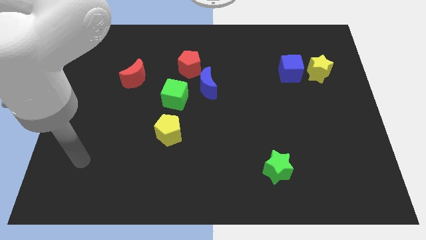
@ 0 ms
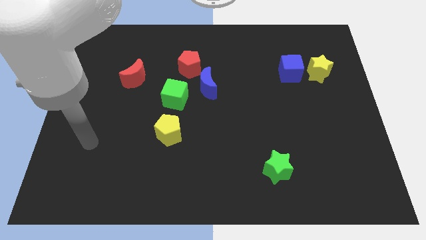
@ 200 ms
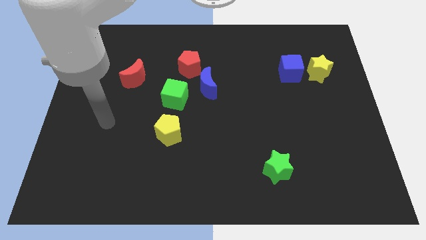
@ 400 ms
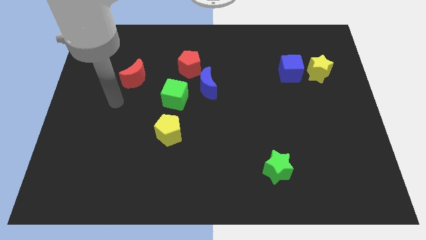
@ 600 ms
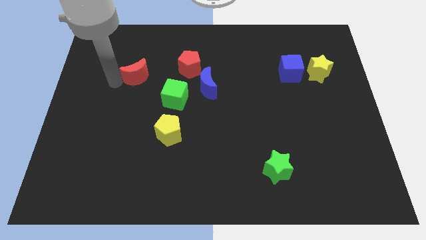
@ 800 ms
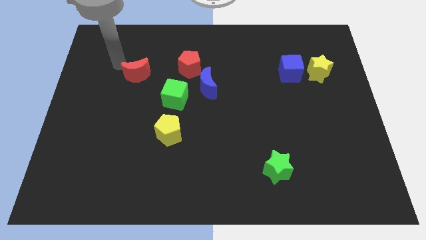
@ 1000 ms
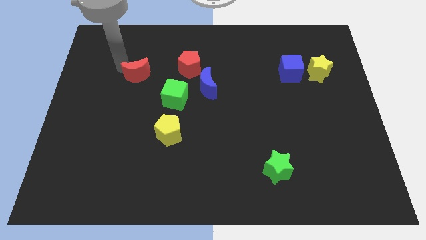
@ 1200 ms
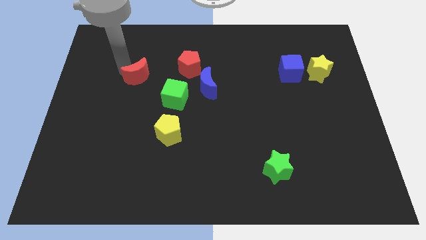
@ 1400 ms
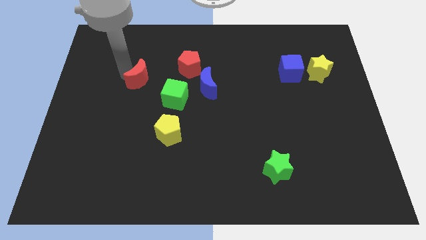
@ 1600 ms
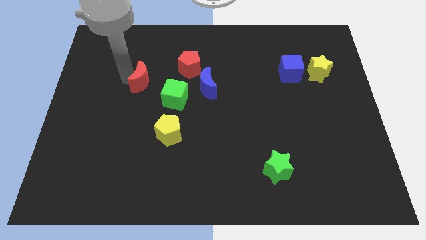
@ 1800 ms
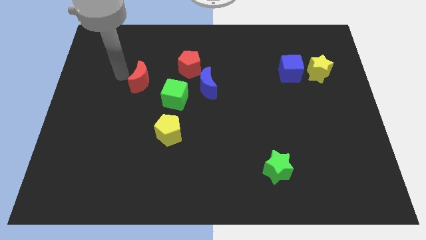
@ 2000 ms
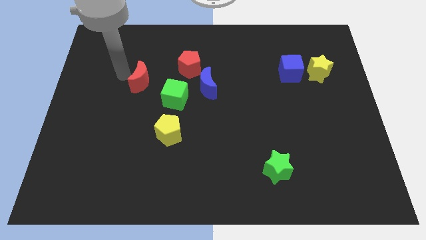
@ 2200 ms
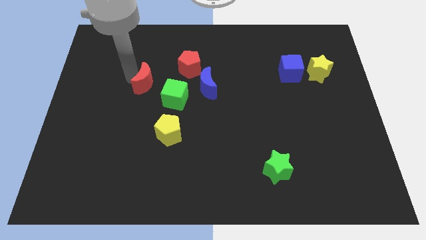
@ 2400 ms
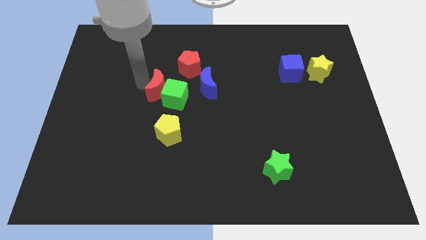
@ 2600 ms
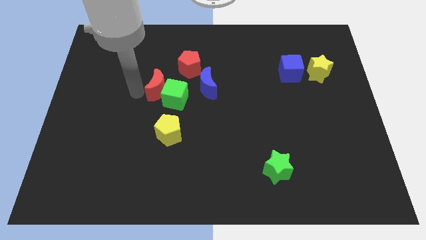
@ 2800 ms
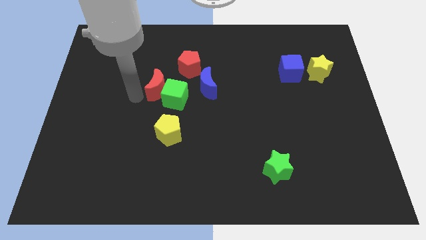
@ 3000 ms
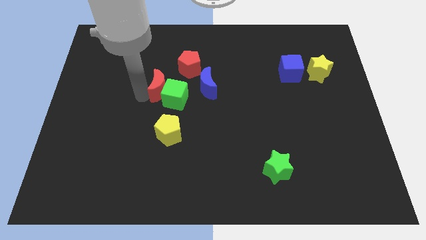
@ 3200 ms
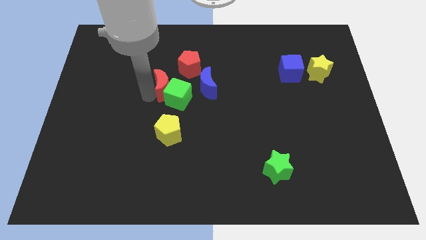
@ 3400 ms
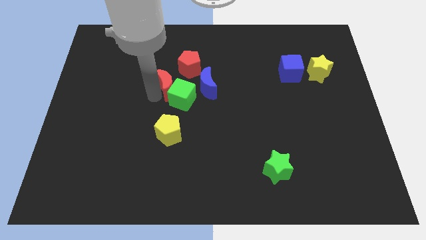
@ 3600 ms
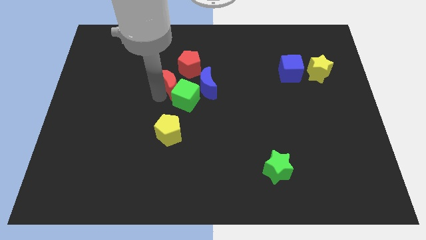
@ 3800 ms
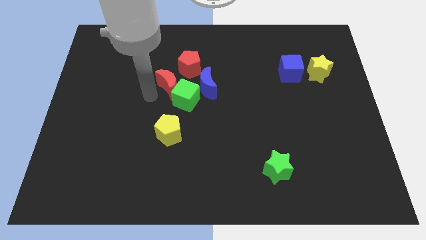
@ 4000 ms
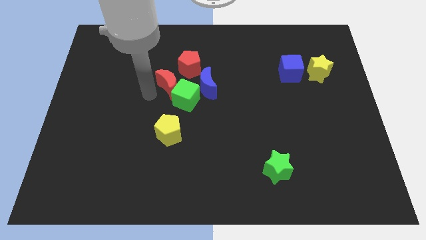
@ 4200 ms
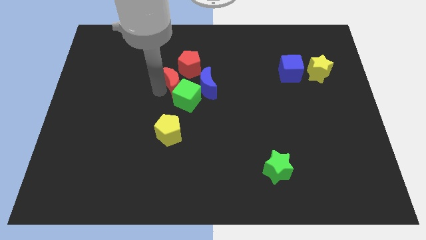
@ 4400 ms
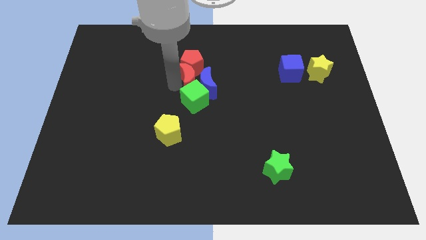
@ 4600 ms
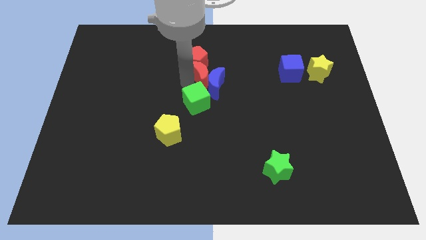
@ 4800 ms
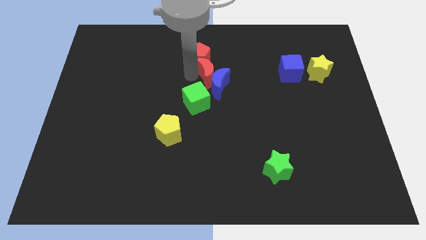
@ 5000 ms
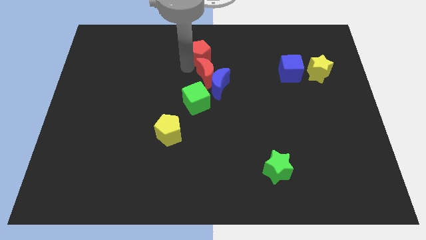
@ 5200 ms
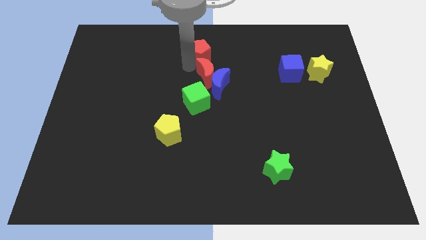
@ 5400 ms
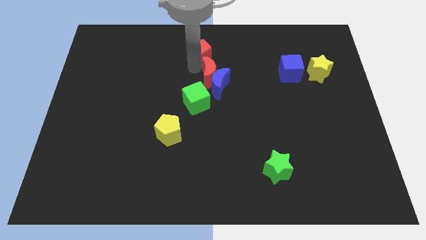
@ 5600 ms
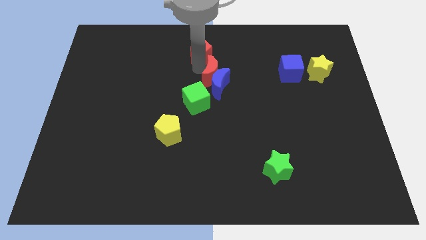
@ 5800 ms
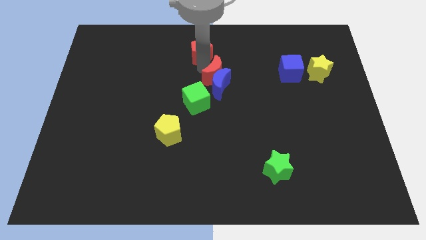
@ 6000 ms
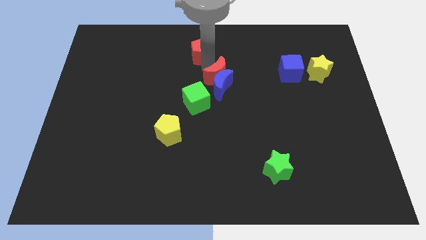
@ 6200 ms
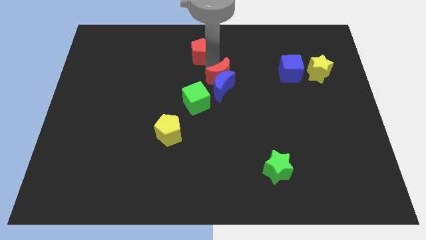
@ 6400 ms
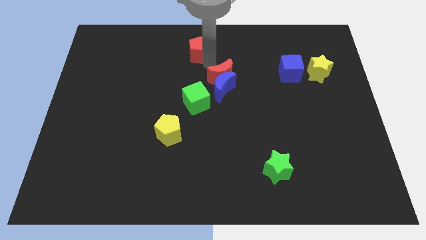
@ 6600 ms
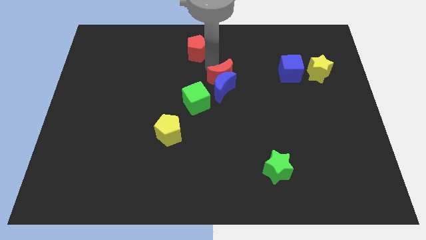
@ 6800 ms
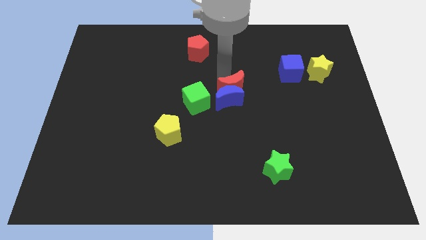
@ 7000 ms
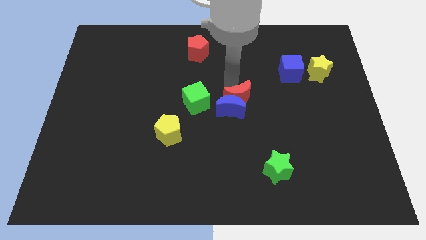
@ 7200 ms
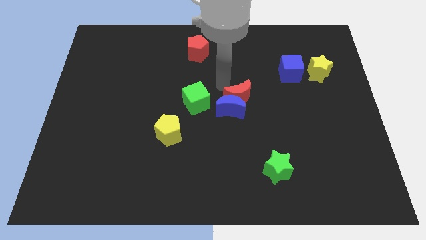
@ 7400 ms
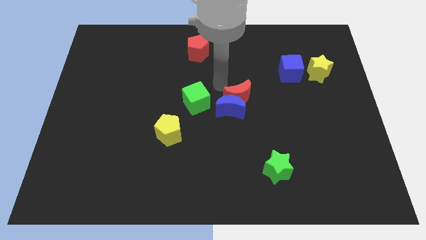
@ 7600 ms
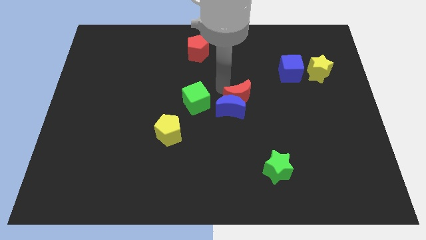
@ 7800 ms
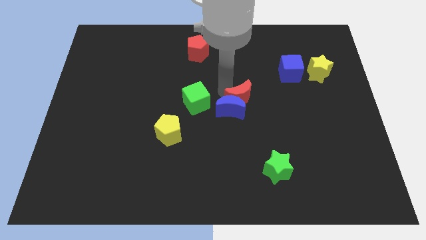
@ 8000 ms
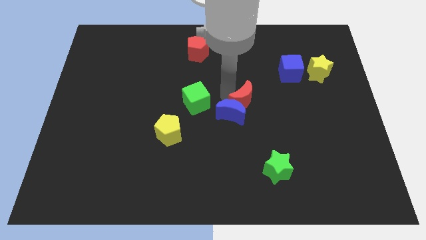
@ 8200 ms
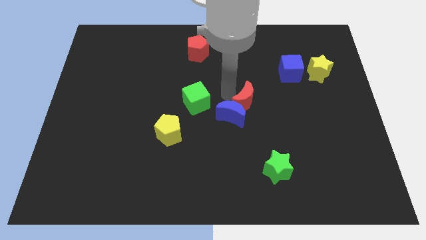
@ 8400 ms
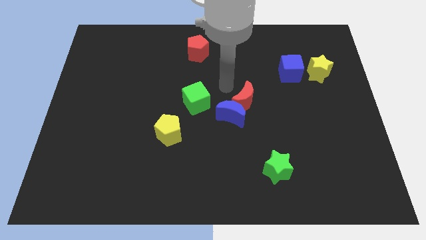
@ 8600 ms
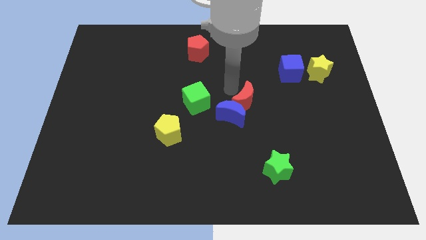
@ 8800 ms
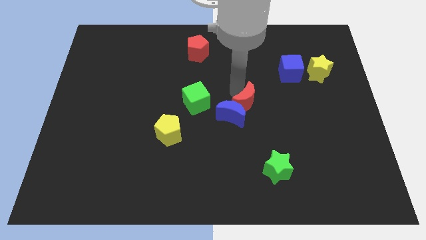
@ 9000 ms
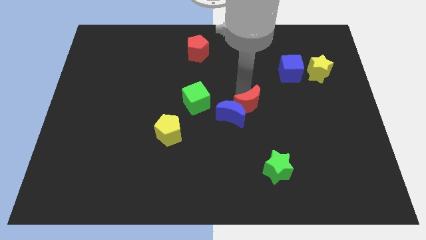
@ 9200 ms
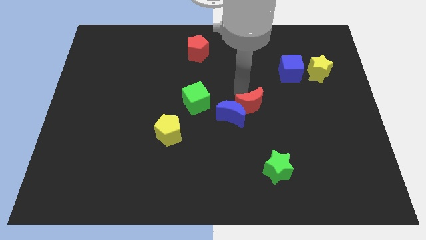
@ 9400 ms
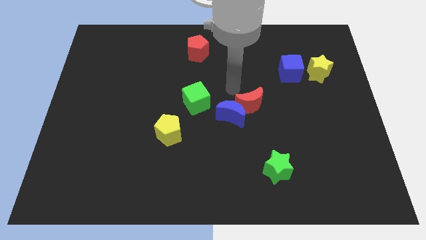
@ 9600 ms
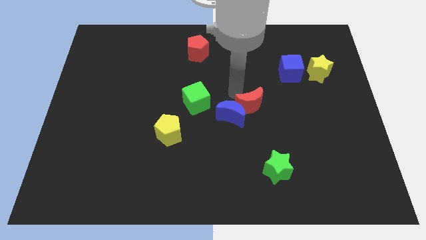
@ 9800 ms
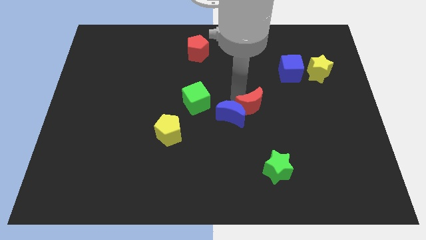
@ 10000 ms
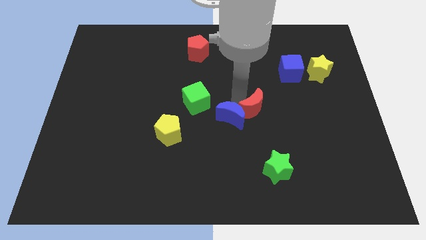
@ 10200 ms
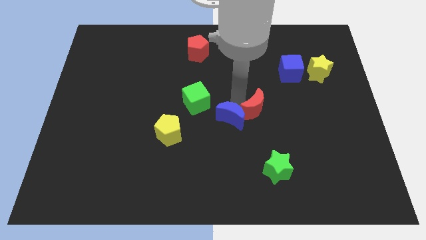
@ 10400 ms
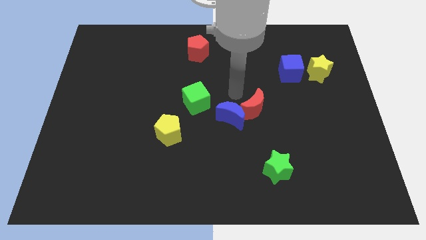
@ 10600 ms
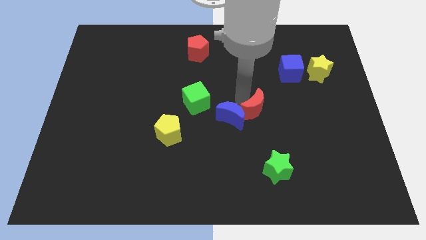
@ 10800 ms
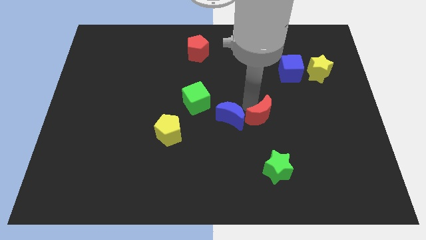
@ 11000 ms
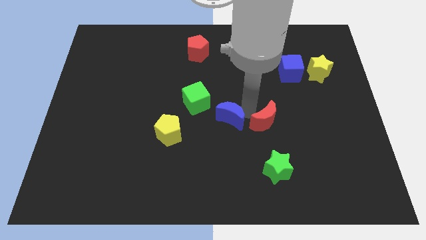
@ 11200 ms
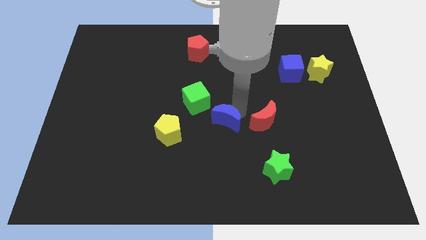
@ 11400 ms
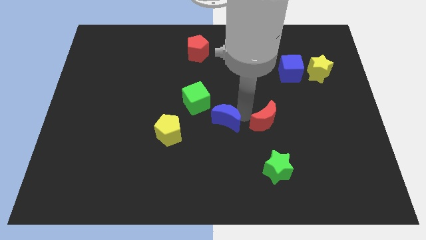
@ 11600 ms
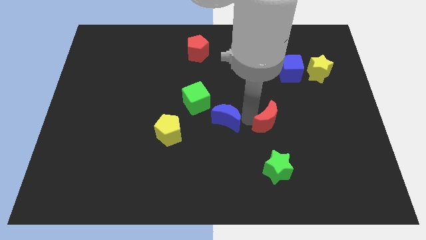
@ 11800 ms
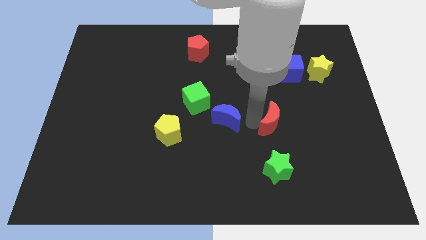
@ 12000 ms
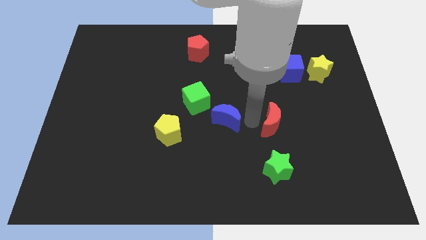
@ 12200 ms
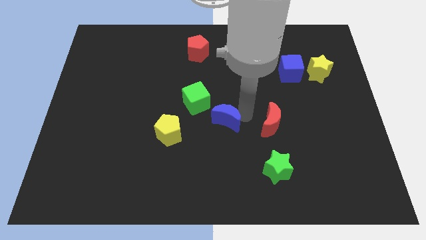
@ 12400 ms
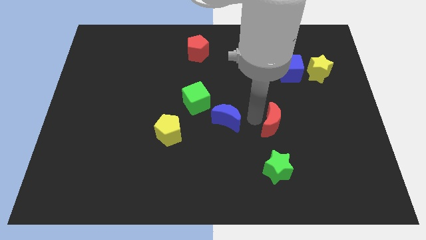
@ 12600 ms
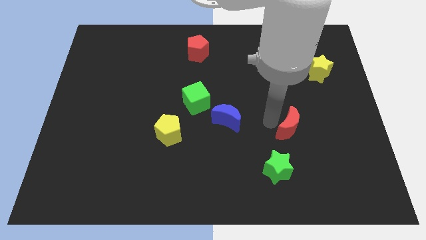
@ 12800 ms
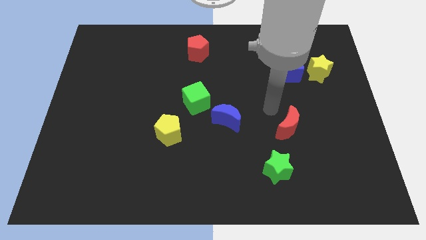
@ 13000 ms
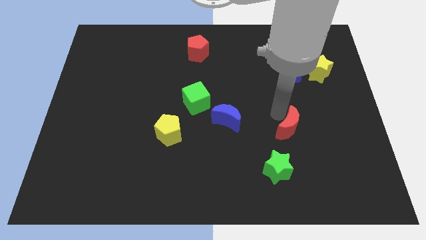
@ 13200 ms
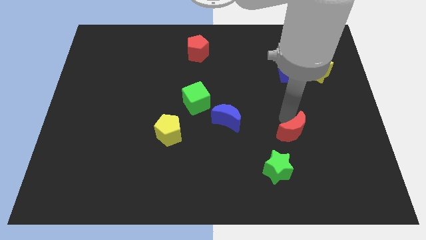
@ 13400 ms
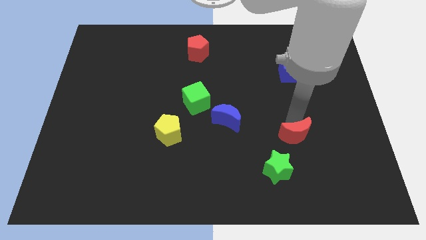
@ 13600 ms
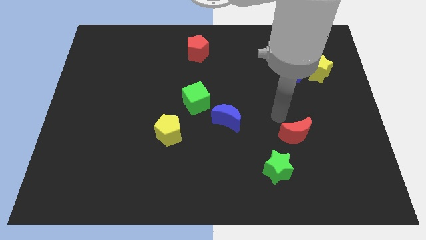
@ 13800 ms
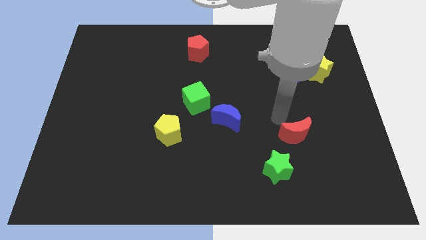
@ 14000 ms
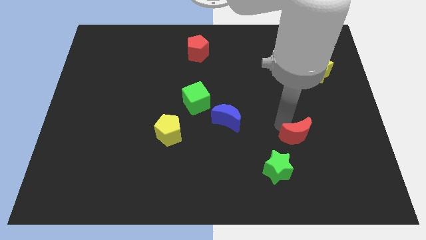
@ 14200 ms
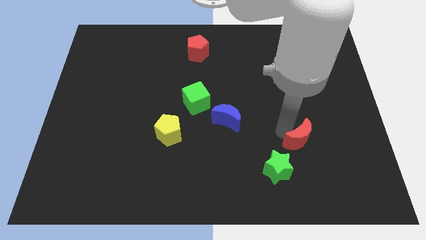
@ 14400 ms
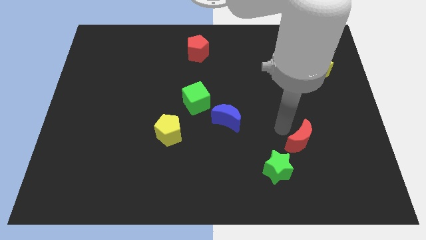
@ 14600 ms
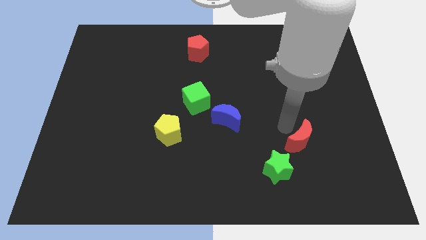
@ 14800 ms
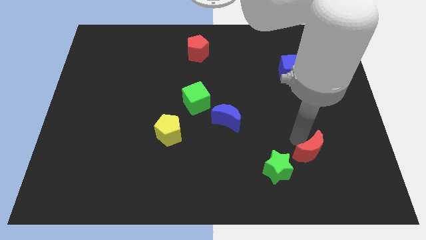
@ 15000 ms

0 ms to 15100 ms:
move the red moon right of the green star

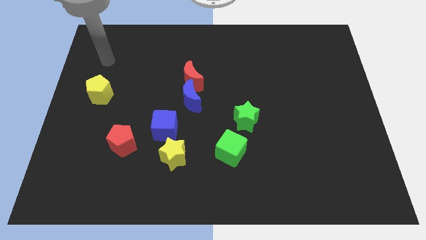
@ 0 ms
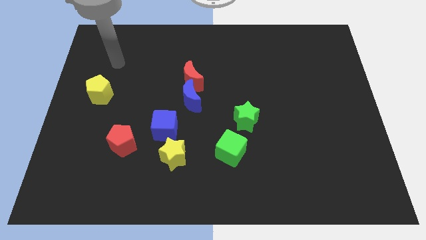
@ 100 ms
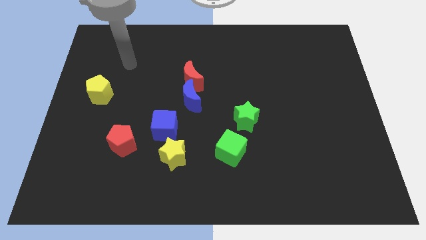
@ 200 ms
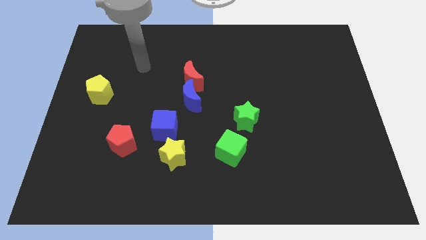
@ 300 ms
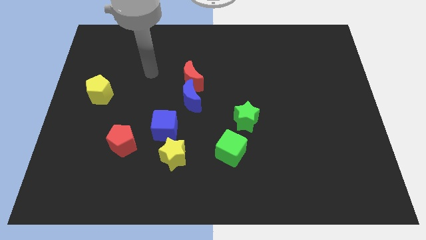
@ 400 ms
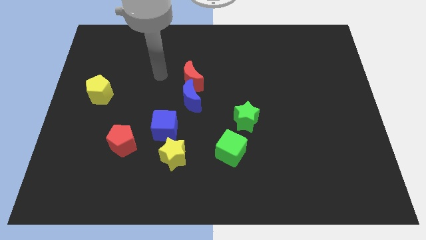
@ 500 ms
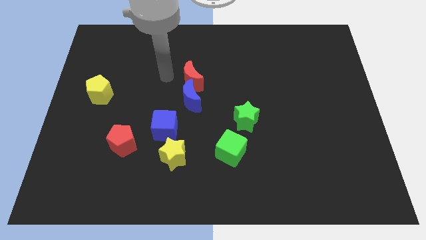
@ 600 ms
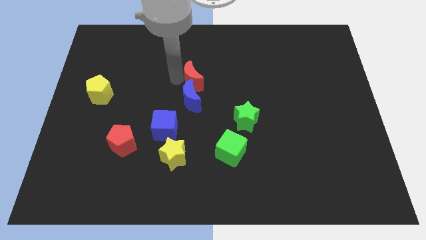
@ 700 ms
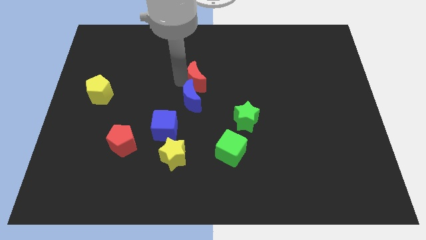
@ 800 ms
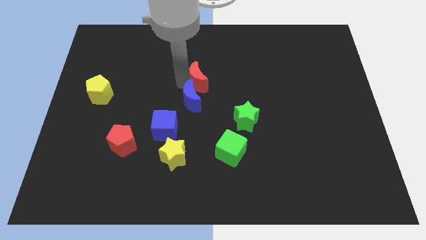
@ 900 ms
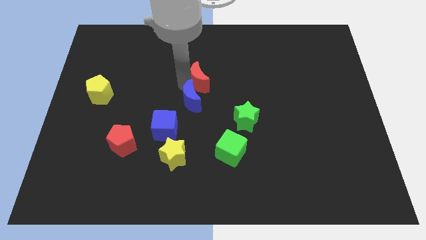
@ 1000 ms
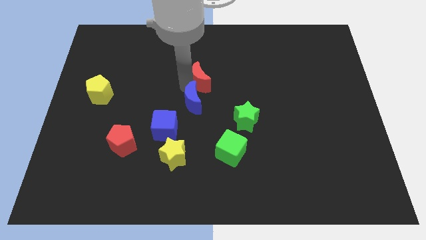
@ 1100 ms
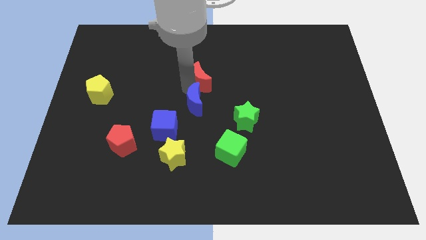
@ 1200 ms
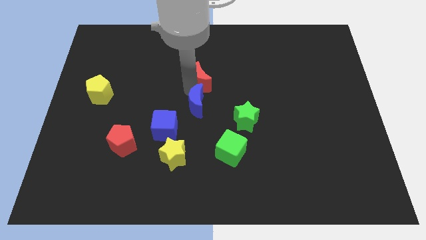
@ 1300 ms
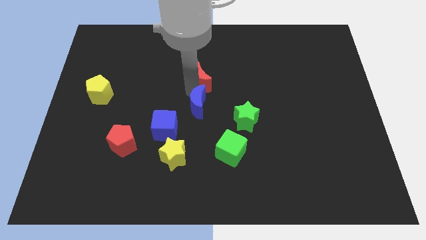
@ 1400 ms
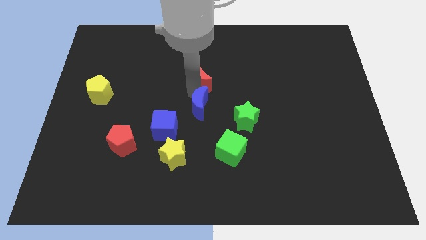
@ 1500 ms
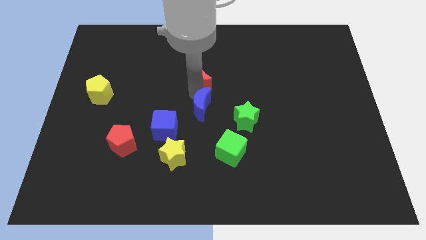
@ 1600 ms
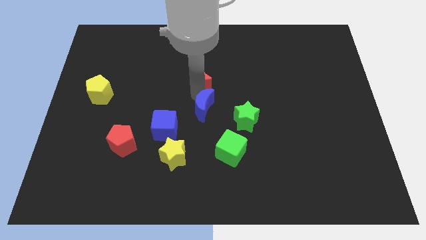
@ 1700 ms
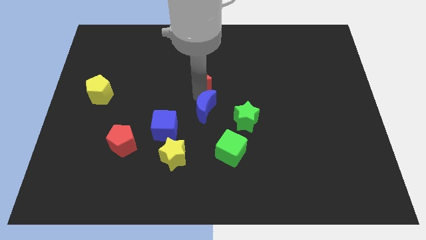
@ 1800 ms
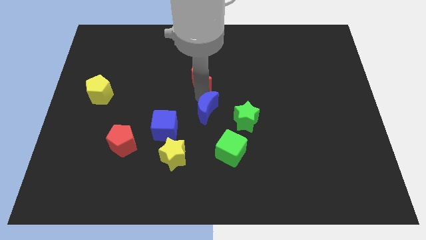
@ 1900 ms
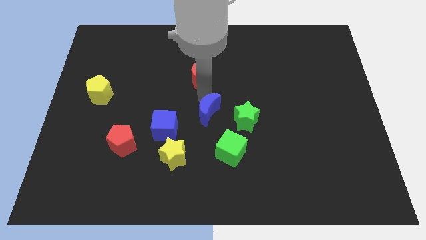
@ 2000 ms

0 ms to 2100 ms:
push the blue moon to the top left side of the green cube
